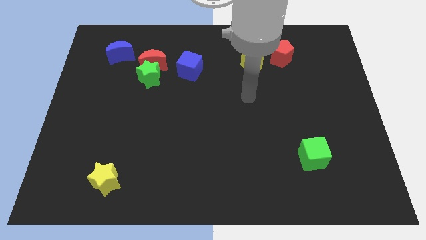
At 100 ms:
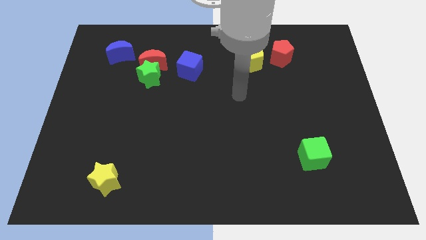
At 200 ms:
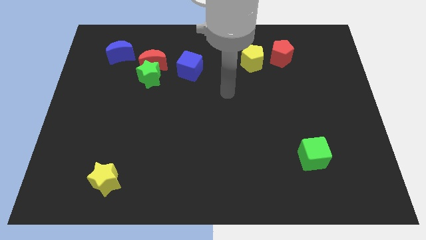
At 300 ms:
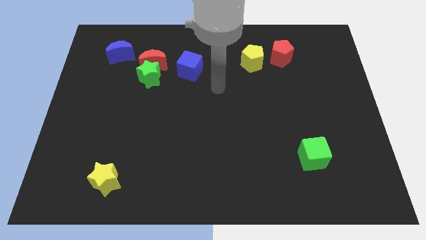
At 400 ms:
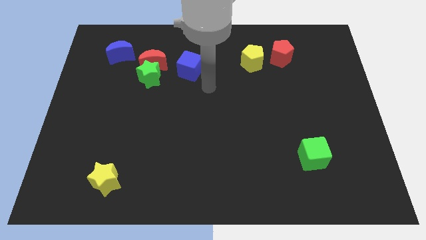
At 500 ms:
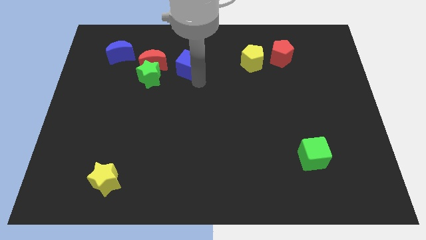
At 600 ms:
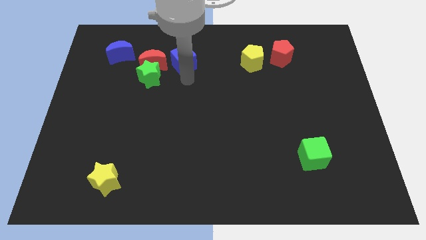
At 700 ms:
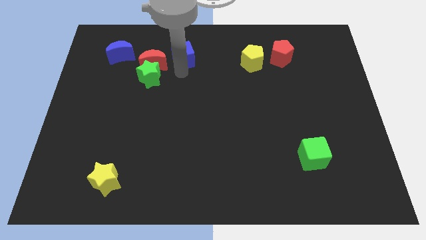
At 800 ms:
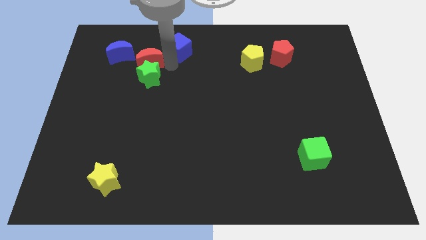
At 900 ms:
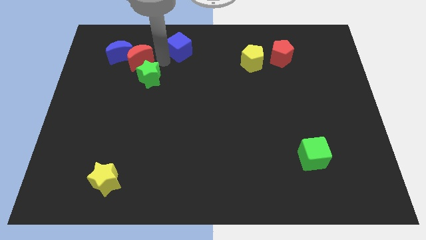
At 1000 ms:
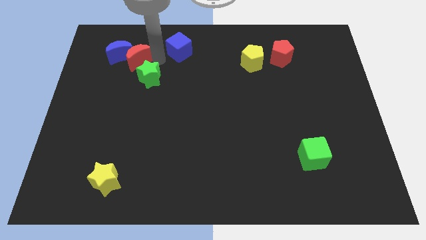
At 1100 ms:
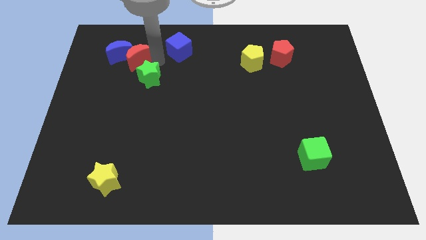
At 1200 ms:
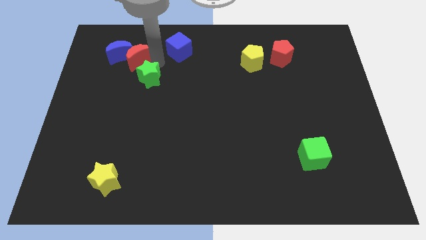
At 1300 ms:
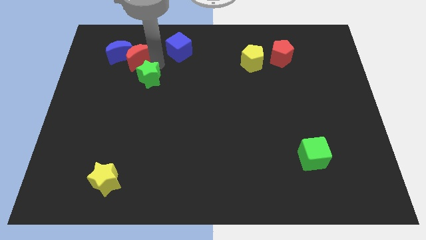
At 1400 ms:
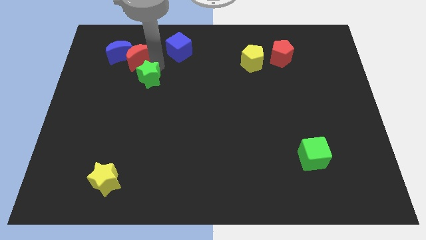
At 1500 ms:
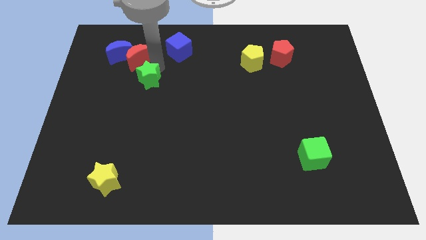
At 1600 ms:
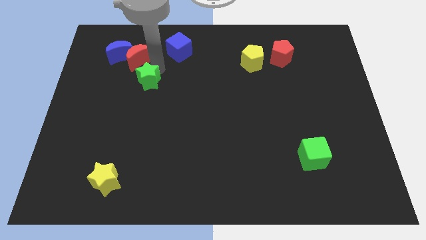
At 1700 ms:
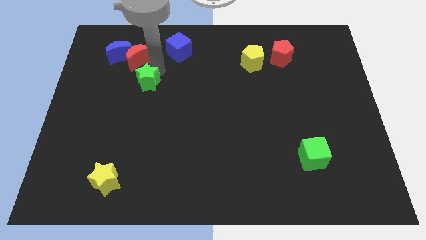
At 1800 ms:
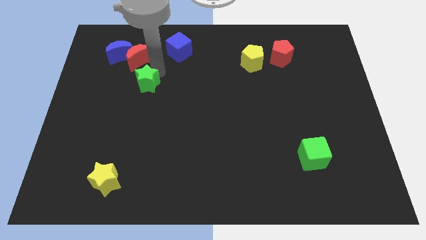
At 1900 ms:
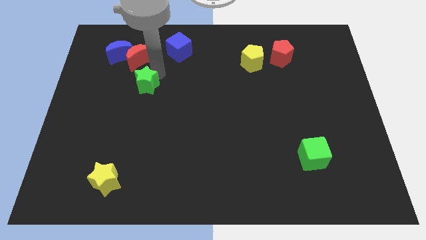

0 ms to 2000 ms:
move the green star away from the red moon and blue cube

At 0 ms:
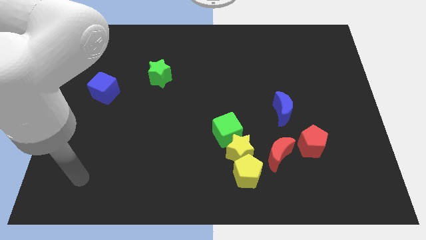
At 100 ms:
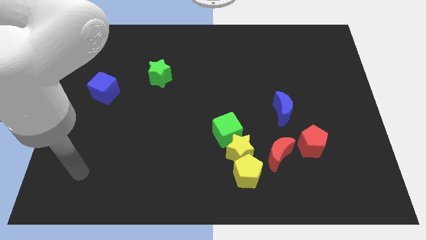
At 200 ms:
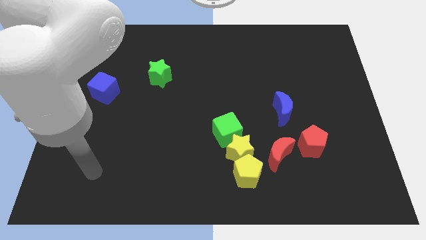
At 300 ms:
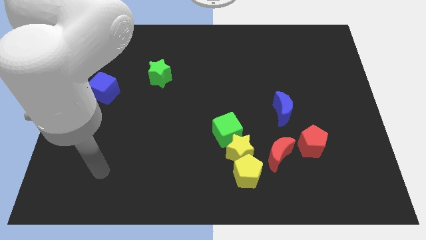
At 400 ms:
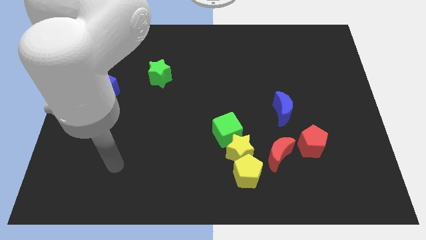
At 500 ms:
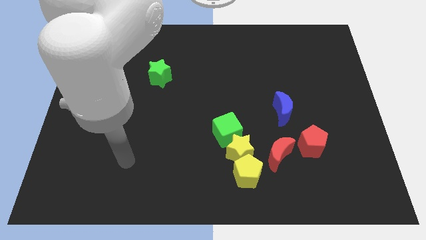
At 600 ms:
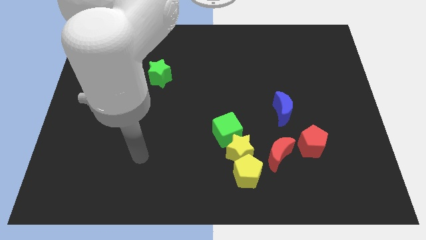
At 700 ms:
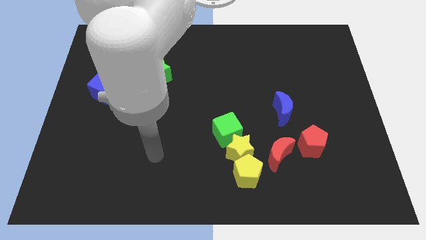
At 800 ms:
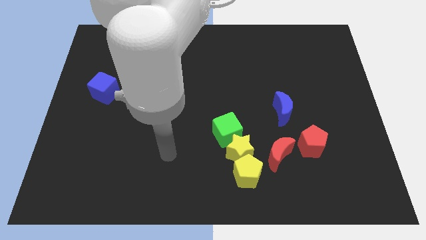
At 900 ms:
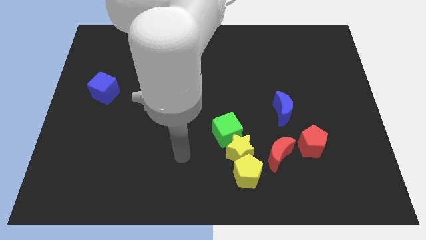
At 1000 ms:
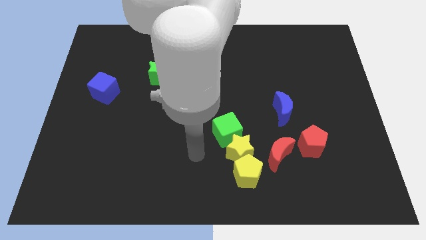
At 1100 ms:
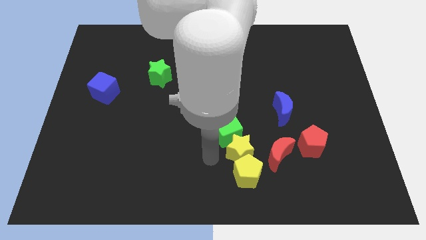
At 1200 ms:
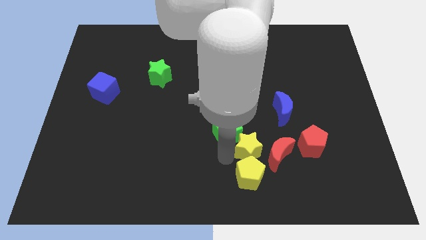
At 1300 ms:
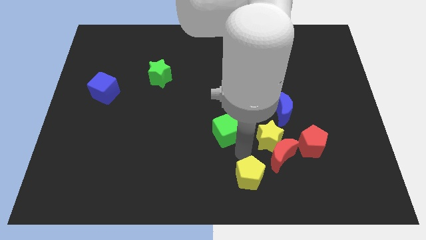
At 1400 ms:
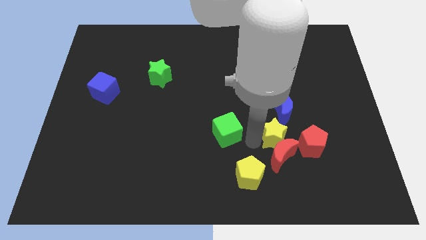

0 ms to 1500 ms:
separate the green cube from the yellow star

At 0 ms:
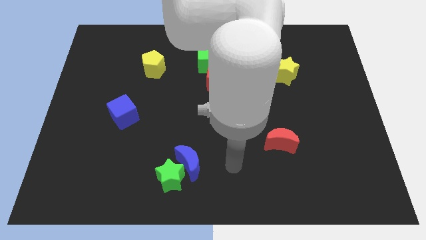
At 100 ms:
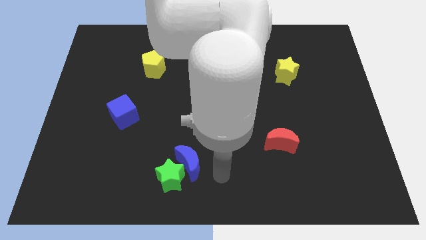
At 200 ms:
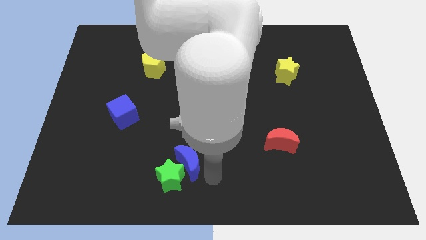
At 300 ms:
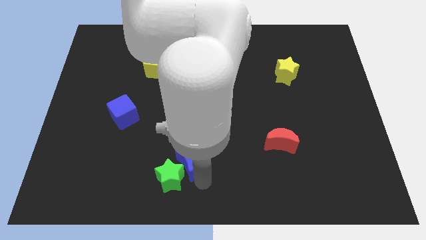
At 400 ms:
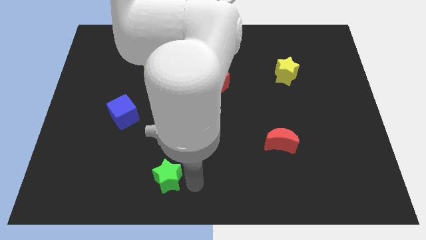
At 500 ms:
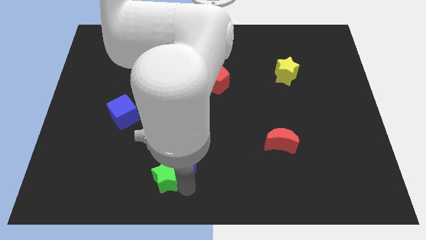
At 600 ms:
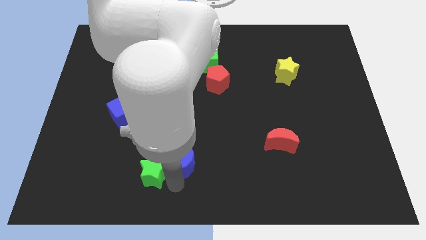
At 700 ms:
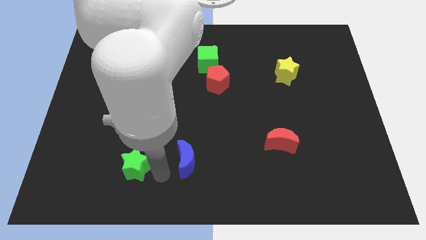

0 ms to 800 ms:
move the blue moon away from the green star

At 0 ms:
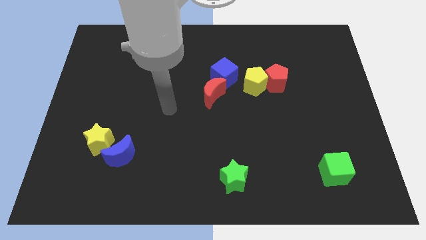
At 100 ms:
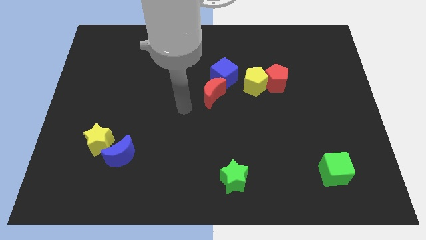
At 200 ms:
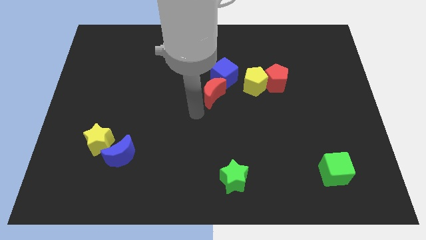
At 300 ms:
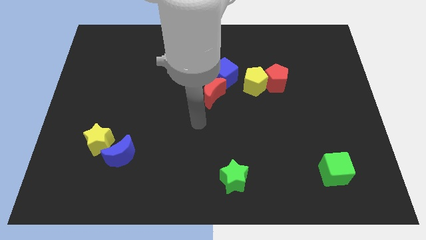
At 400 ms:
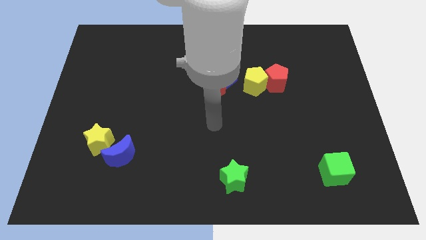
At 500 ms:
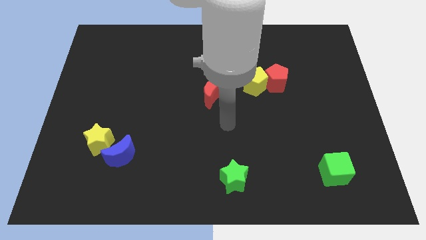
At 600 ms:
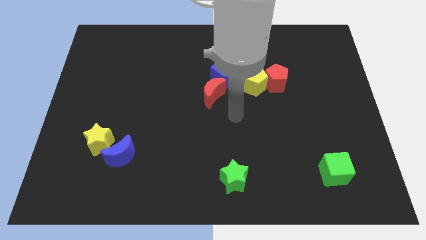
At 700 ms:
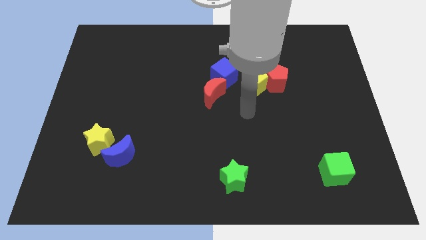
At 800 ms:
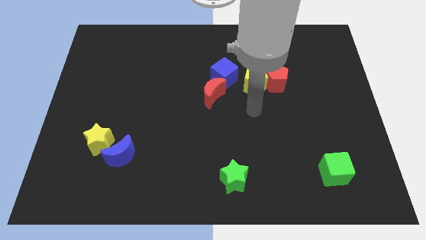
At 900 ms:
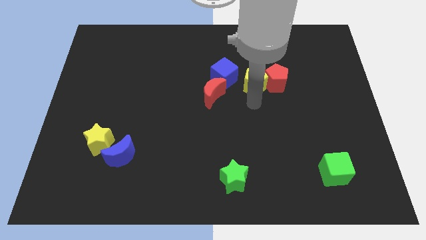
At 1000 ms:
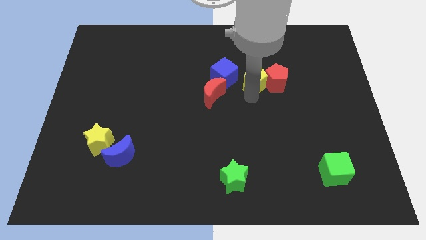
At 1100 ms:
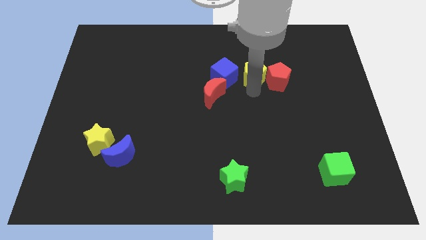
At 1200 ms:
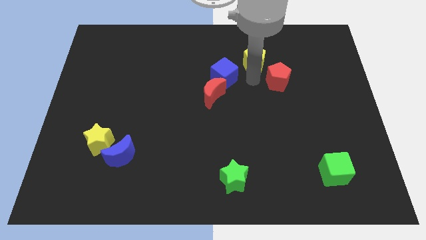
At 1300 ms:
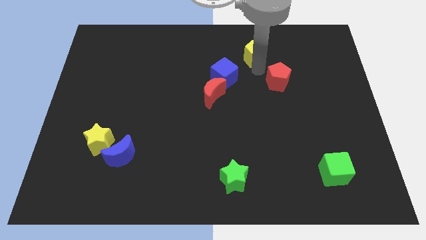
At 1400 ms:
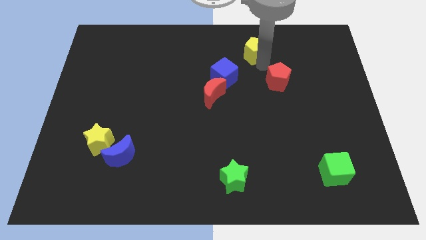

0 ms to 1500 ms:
separate the red pentagon from the yellow pentagon

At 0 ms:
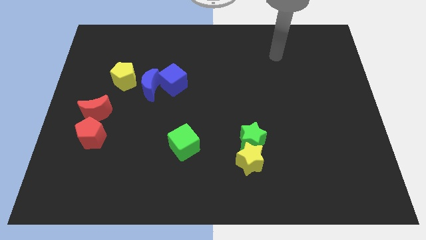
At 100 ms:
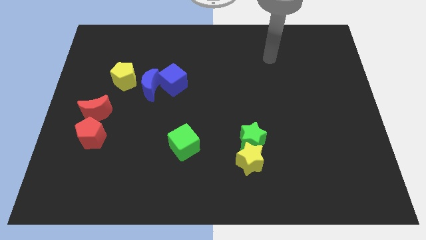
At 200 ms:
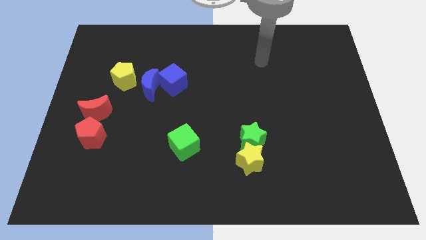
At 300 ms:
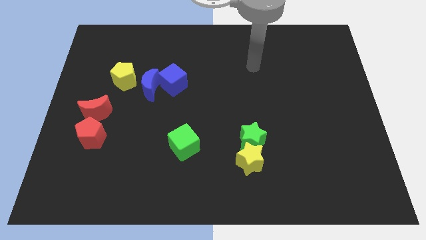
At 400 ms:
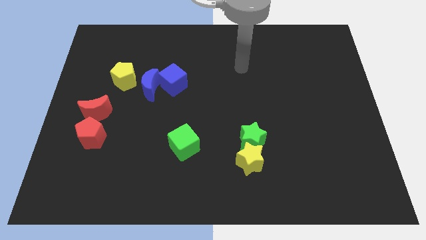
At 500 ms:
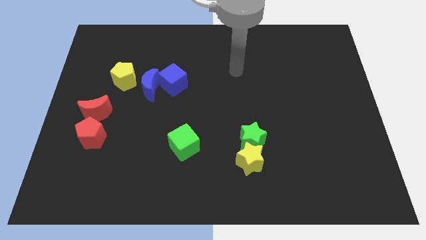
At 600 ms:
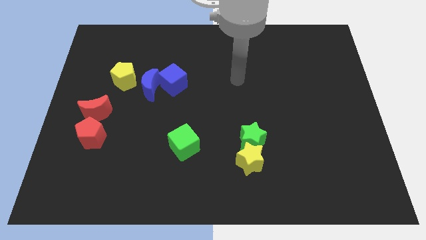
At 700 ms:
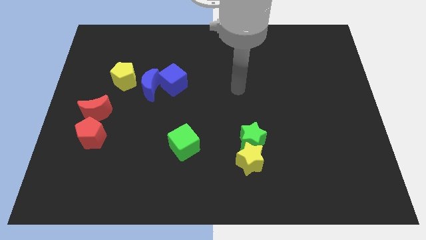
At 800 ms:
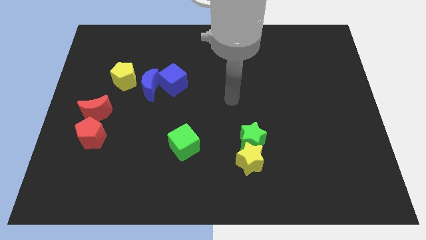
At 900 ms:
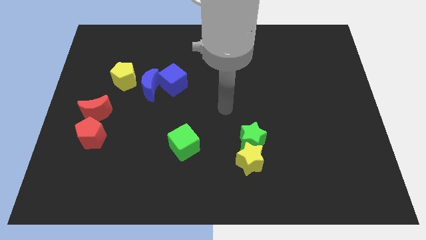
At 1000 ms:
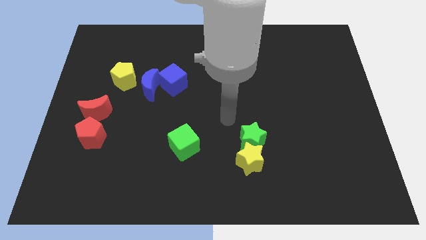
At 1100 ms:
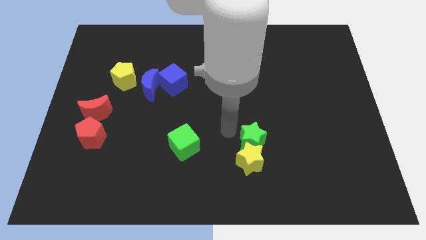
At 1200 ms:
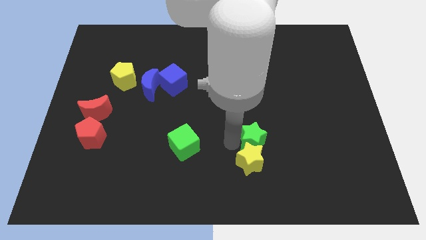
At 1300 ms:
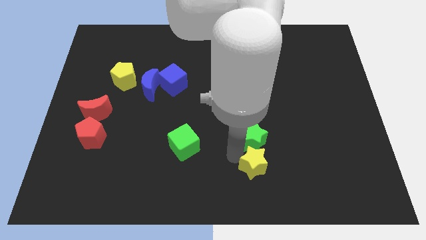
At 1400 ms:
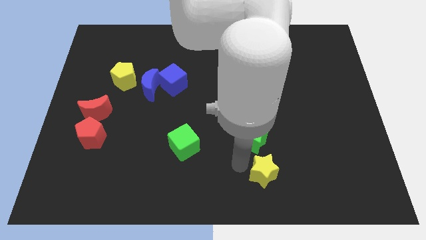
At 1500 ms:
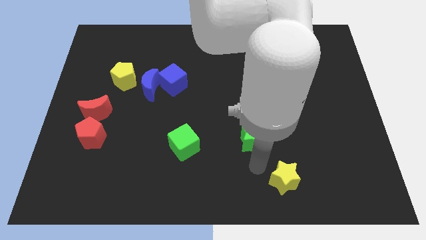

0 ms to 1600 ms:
separate the green star from the yellow star

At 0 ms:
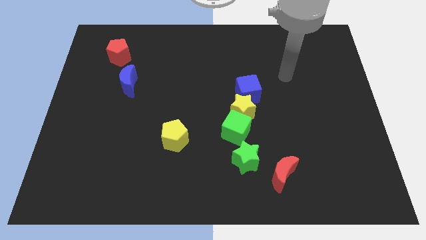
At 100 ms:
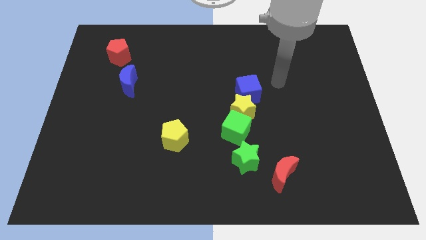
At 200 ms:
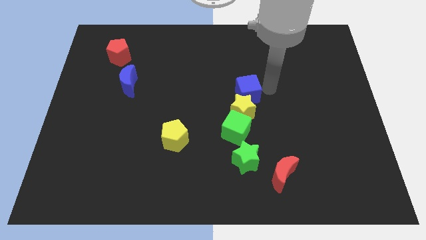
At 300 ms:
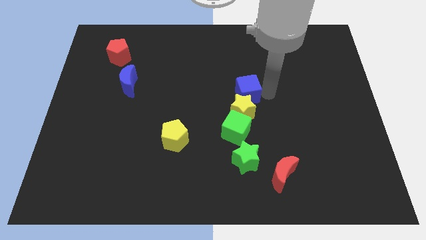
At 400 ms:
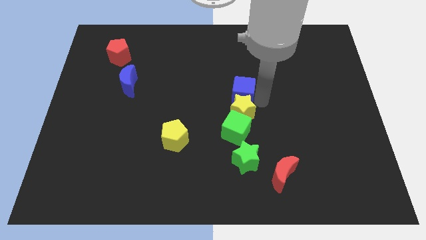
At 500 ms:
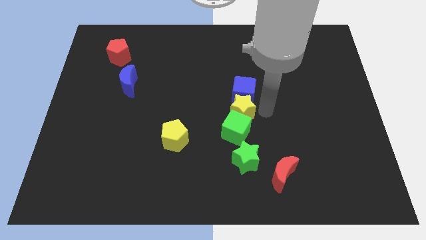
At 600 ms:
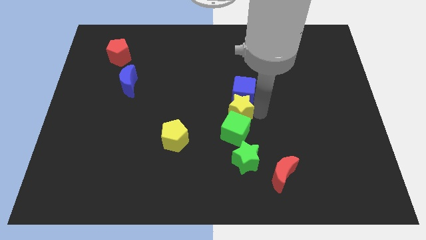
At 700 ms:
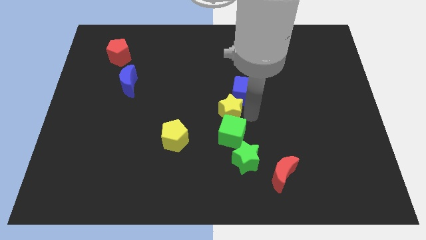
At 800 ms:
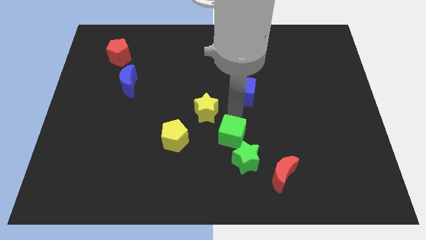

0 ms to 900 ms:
pull the blue cube apart from the yellow star

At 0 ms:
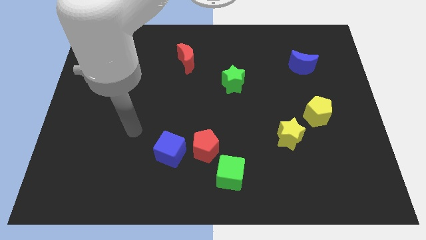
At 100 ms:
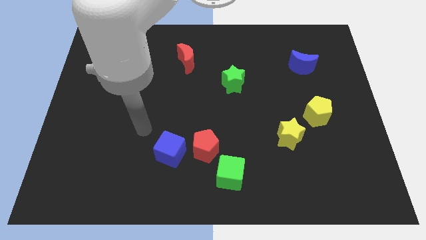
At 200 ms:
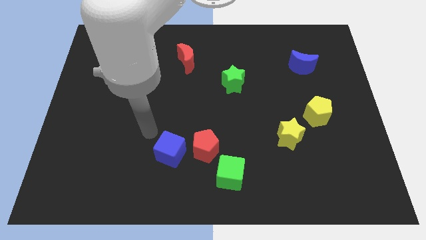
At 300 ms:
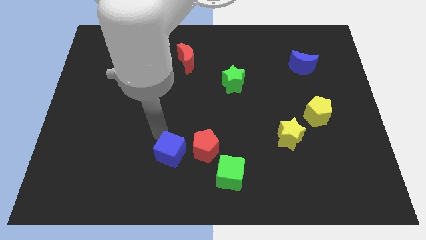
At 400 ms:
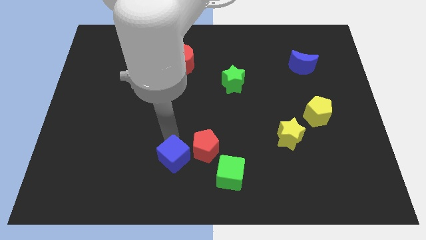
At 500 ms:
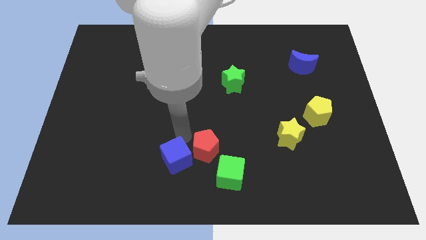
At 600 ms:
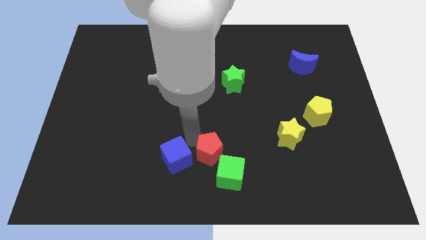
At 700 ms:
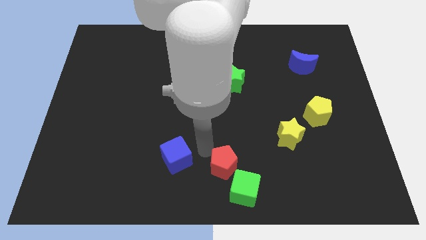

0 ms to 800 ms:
pull the blue cube apart from the red pentagon

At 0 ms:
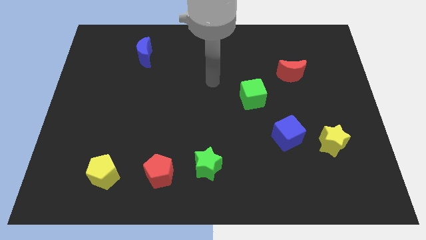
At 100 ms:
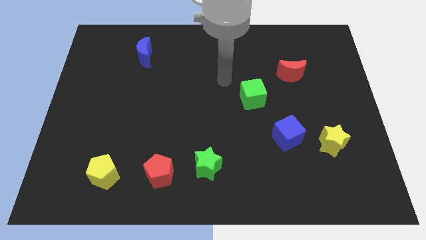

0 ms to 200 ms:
move the blue cube away from the yellow star

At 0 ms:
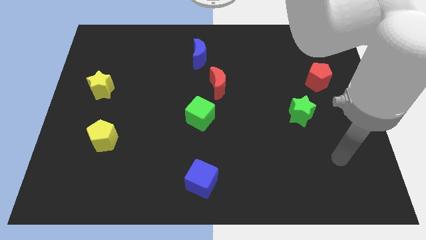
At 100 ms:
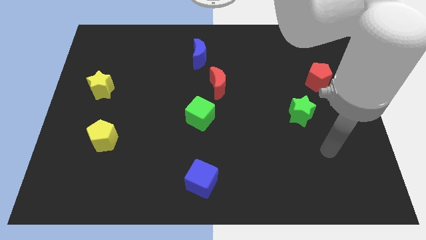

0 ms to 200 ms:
pull the red moon apart from the green cube
